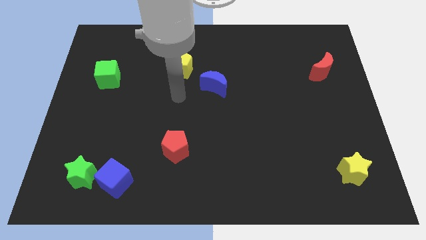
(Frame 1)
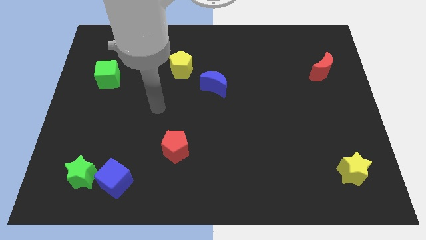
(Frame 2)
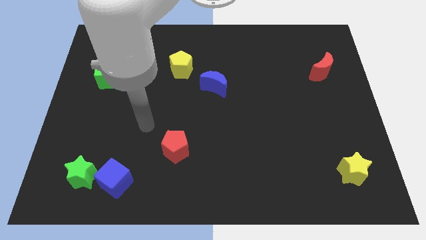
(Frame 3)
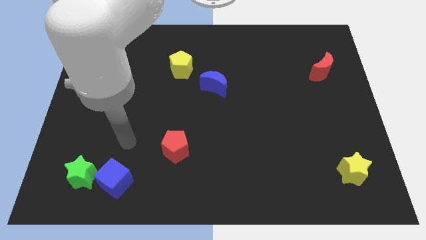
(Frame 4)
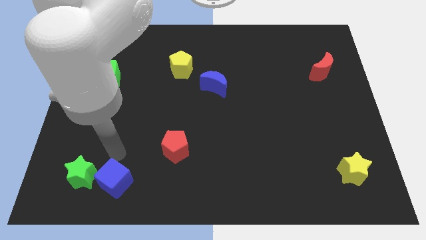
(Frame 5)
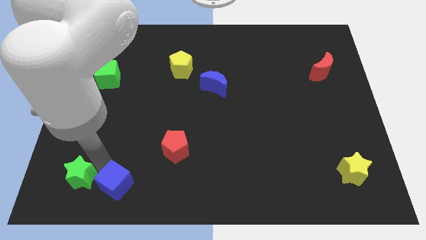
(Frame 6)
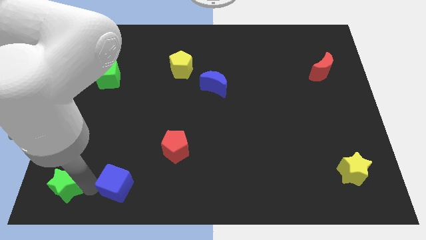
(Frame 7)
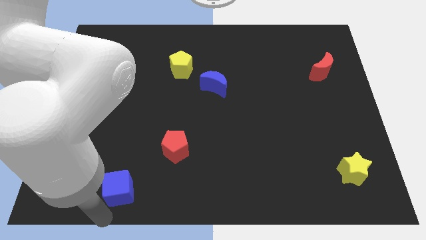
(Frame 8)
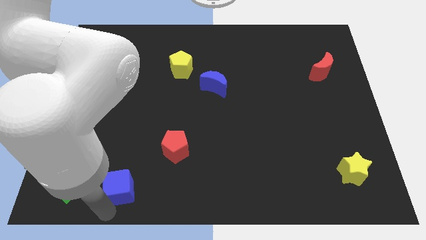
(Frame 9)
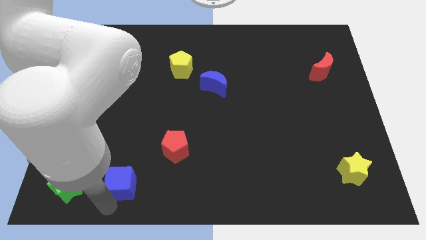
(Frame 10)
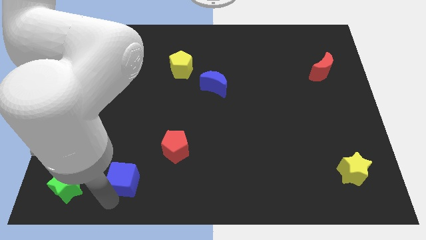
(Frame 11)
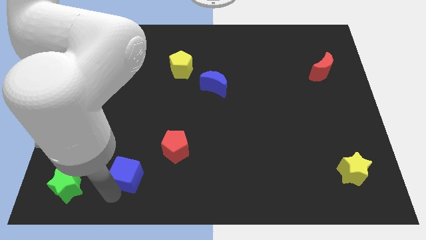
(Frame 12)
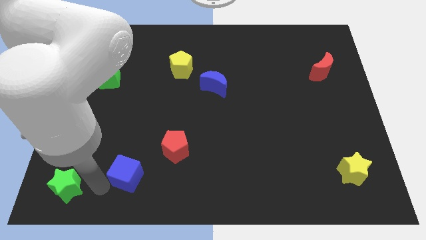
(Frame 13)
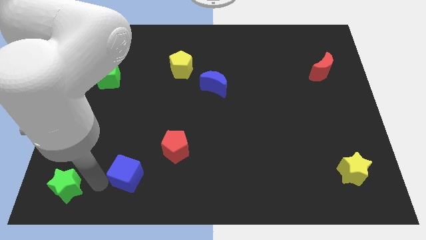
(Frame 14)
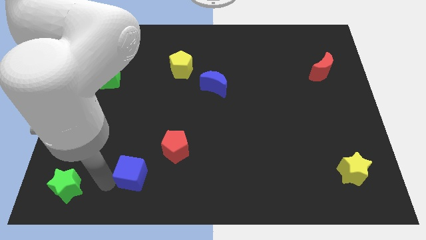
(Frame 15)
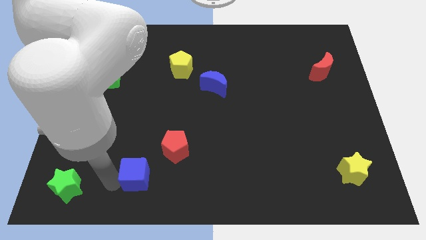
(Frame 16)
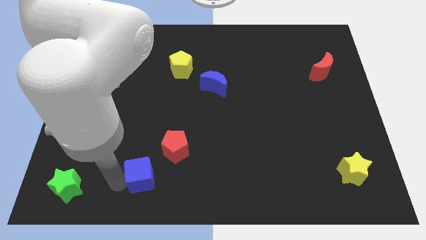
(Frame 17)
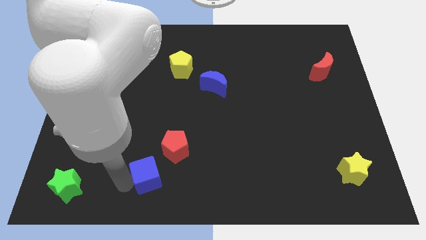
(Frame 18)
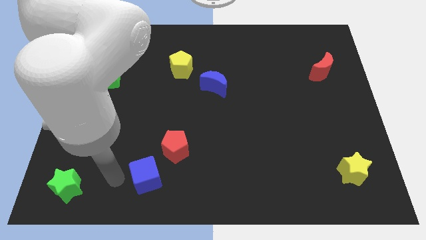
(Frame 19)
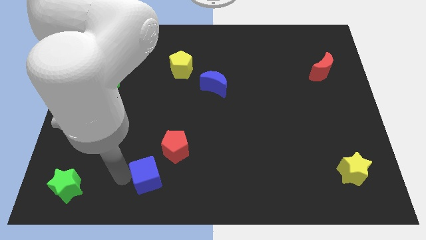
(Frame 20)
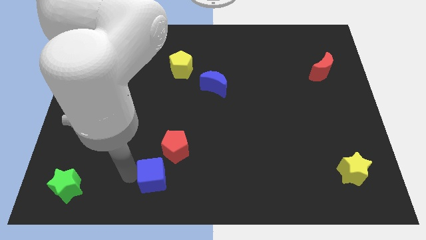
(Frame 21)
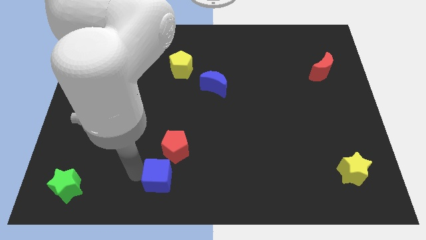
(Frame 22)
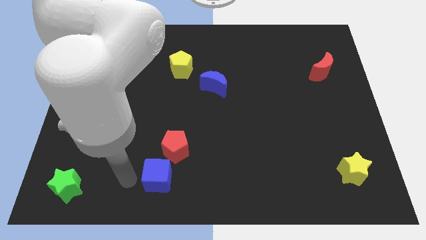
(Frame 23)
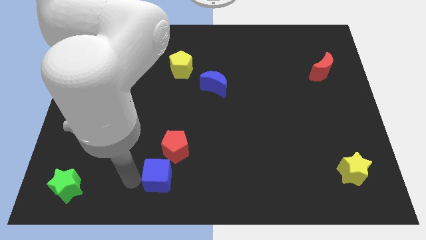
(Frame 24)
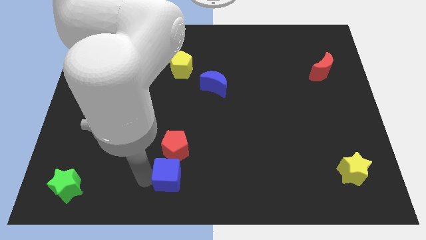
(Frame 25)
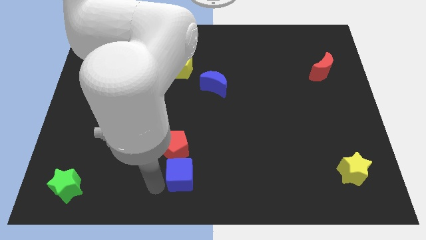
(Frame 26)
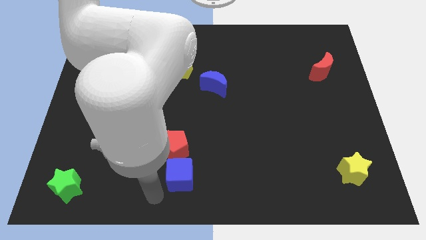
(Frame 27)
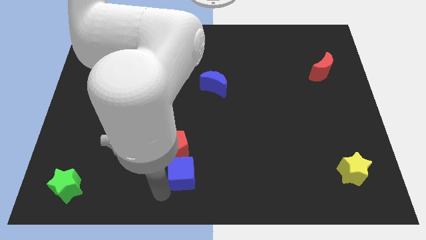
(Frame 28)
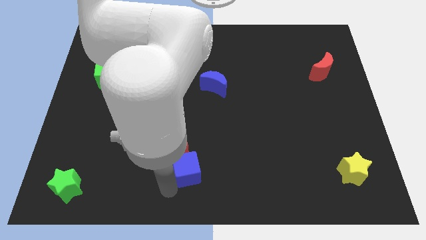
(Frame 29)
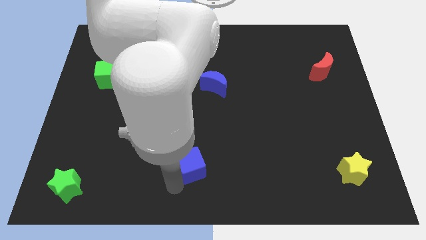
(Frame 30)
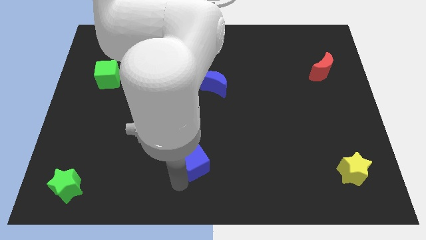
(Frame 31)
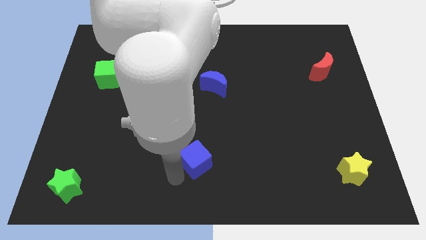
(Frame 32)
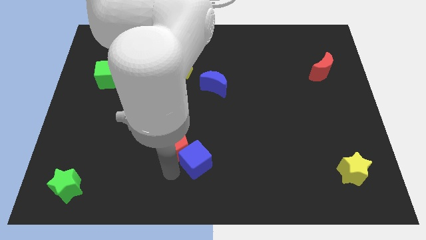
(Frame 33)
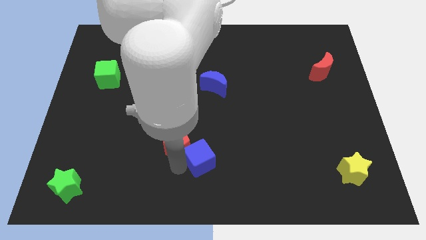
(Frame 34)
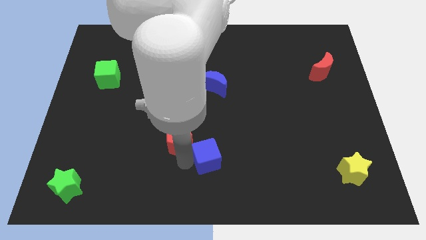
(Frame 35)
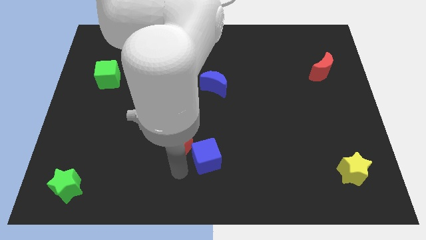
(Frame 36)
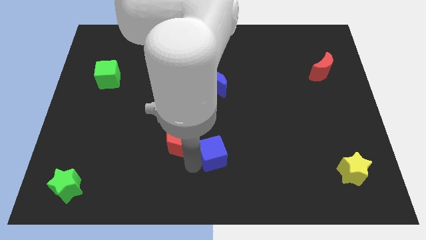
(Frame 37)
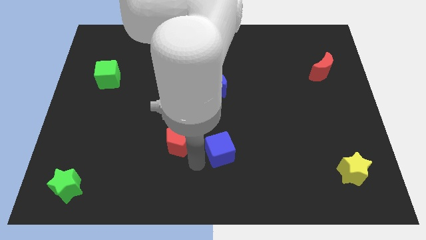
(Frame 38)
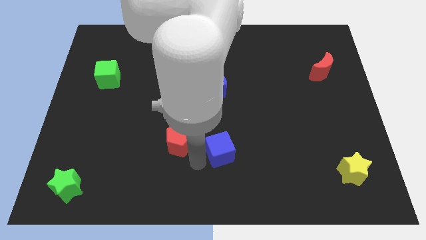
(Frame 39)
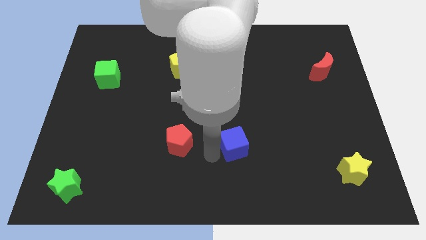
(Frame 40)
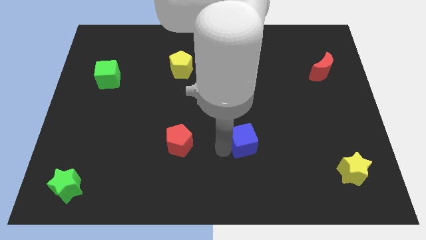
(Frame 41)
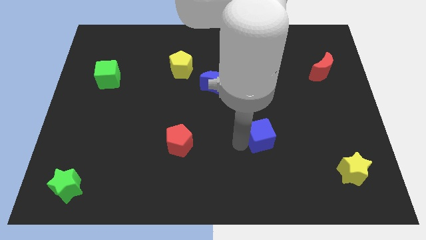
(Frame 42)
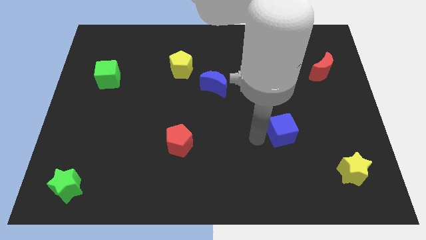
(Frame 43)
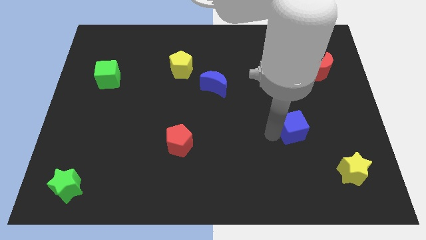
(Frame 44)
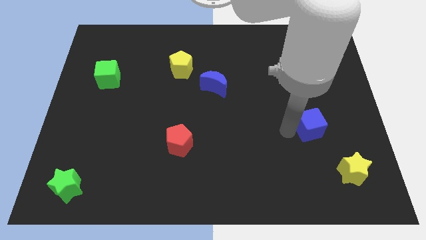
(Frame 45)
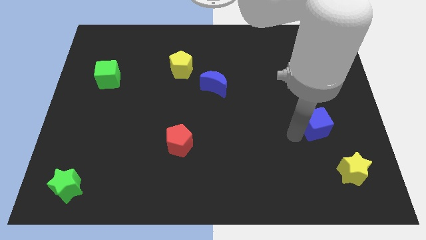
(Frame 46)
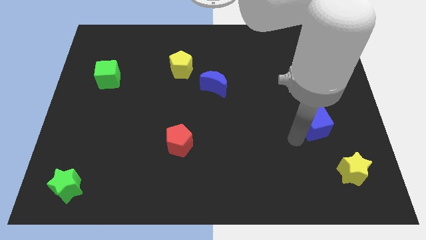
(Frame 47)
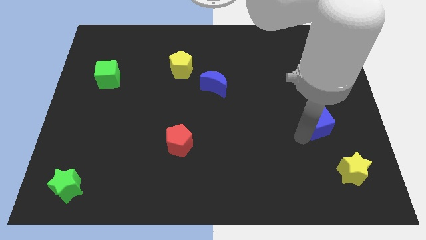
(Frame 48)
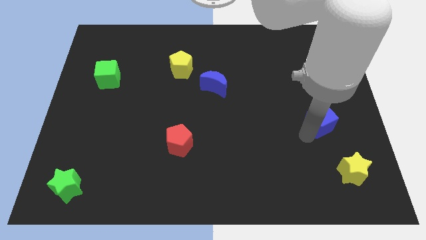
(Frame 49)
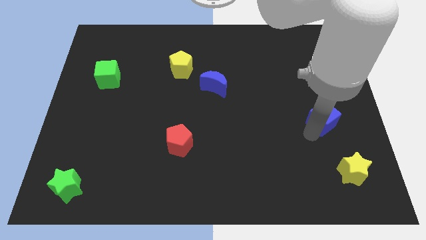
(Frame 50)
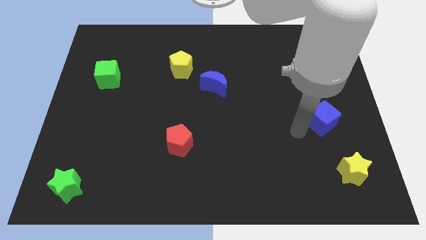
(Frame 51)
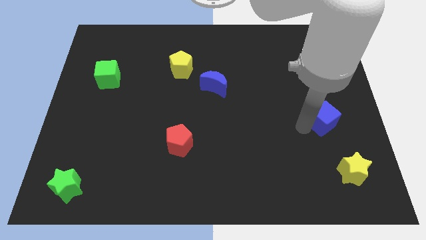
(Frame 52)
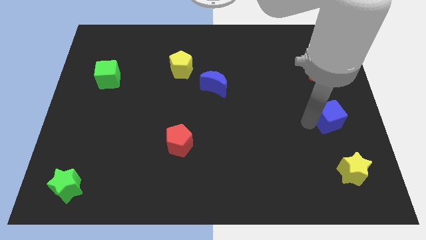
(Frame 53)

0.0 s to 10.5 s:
push the blue cube to the center right

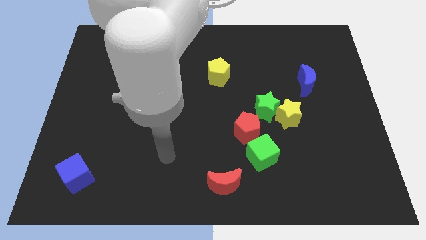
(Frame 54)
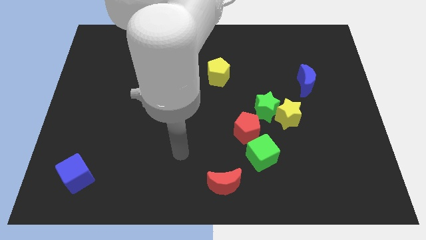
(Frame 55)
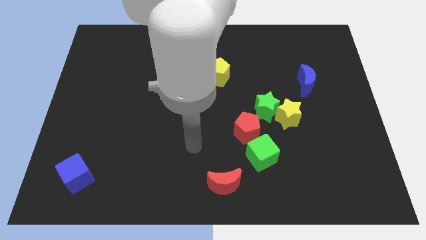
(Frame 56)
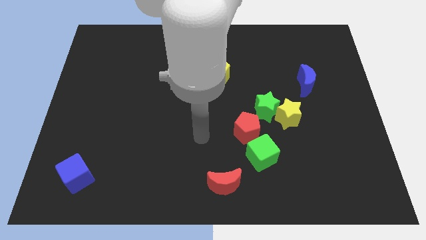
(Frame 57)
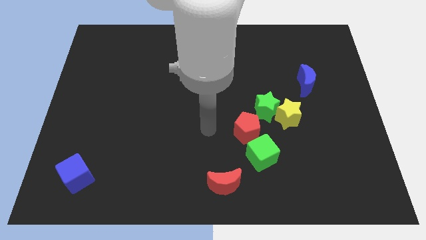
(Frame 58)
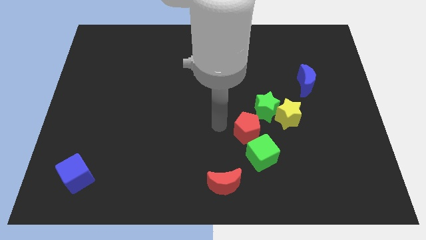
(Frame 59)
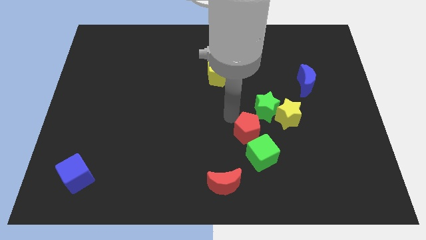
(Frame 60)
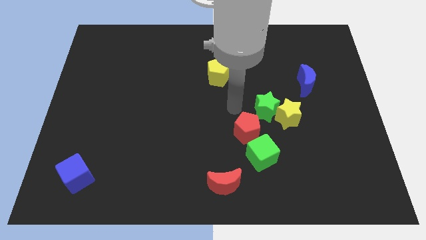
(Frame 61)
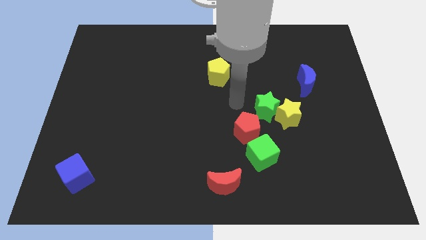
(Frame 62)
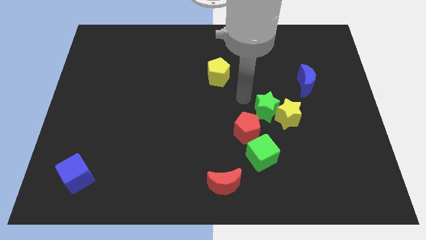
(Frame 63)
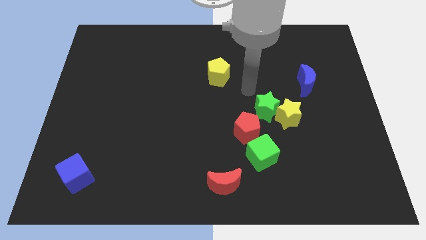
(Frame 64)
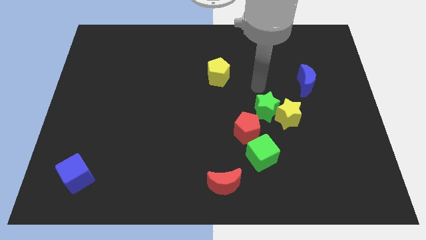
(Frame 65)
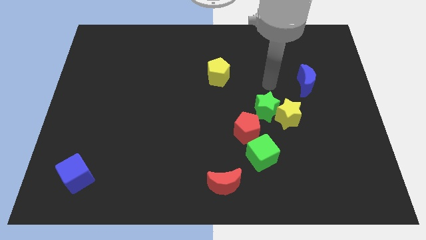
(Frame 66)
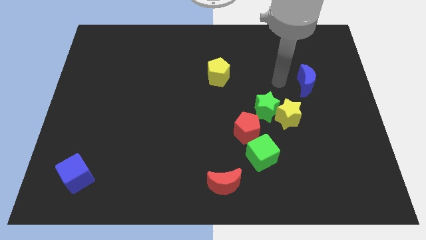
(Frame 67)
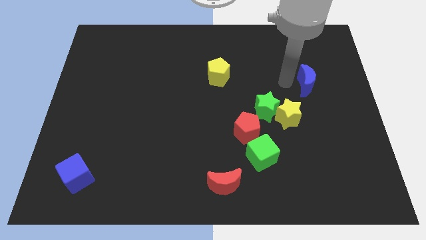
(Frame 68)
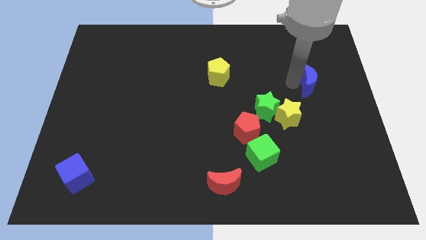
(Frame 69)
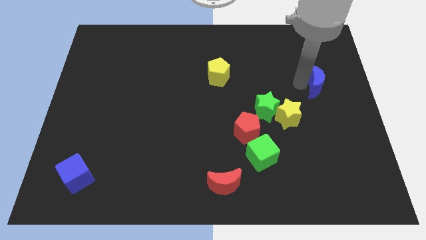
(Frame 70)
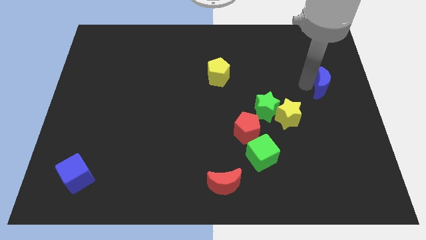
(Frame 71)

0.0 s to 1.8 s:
put the blue moon to the right side of the board
